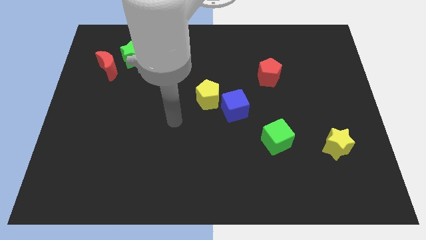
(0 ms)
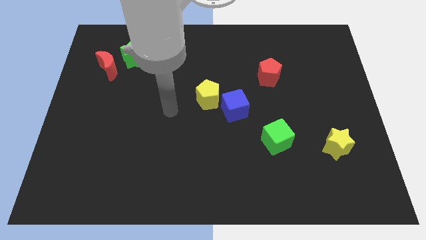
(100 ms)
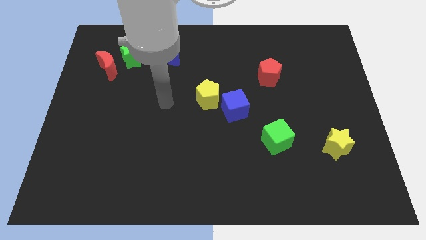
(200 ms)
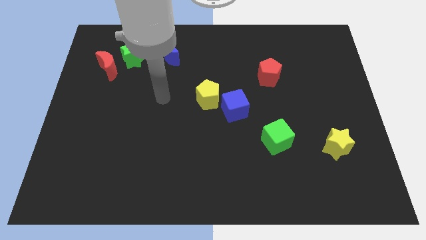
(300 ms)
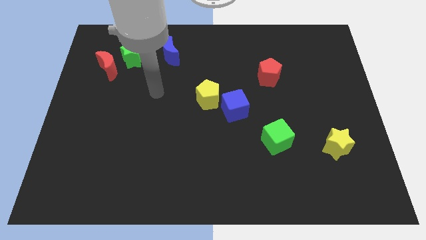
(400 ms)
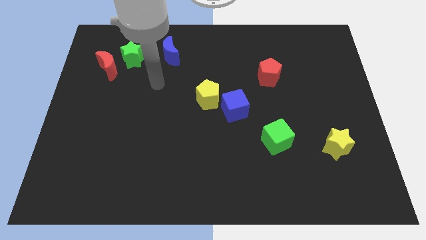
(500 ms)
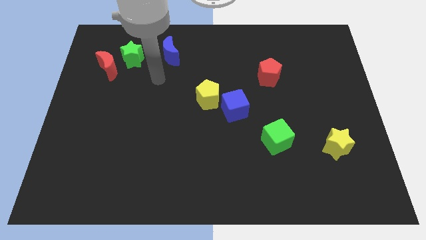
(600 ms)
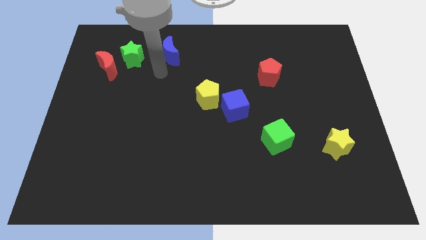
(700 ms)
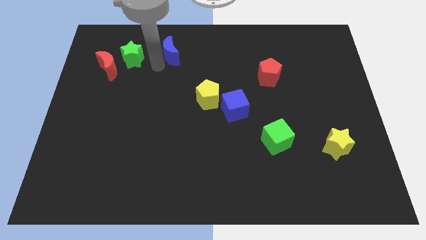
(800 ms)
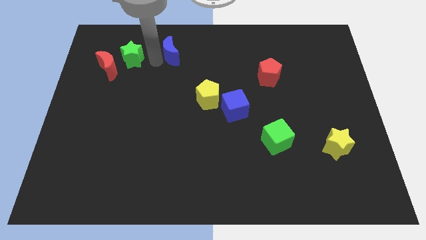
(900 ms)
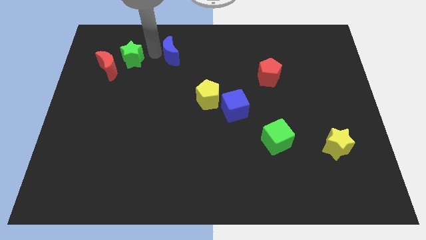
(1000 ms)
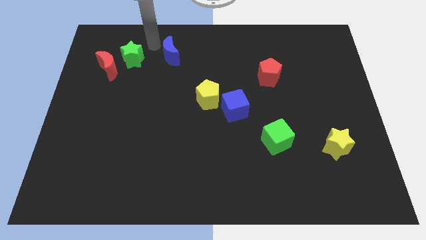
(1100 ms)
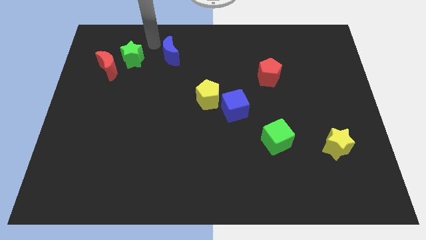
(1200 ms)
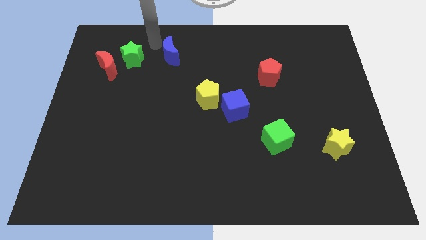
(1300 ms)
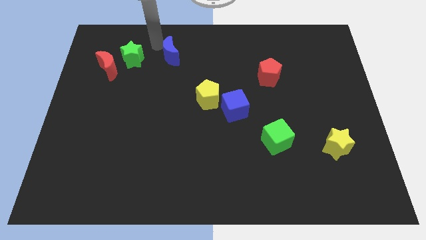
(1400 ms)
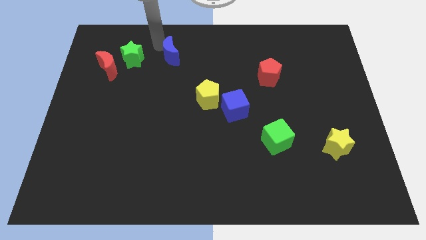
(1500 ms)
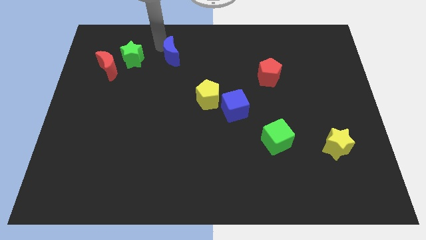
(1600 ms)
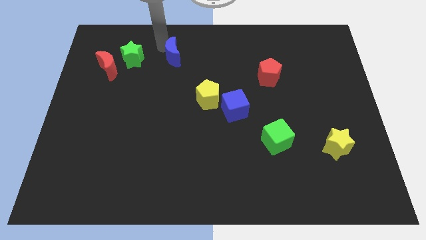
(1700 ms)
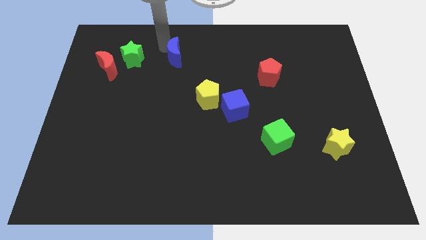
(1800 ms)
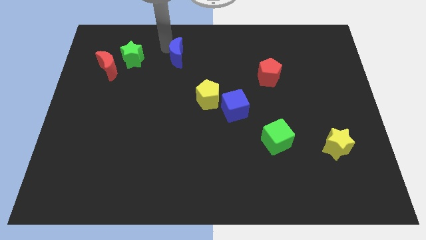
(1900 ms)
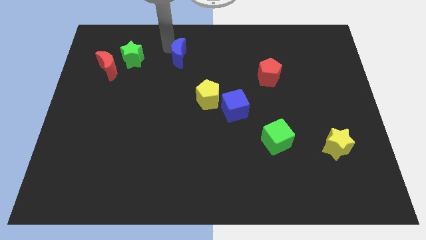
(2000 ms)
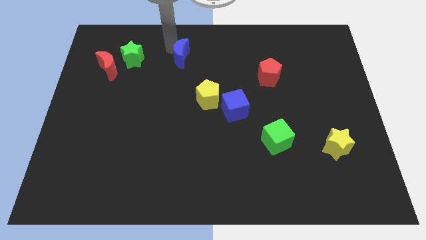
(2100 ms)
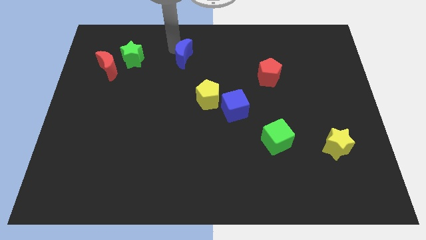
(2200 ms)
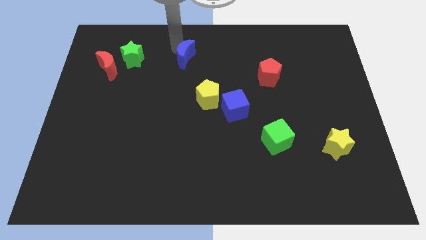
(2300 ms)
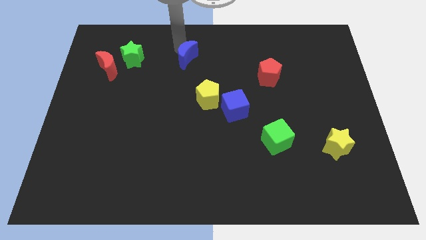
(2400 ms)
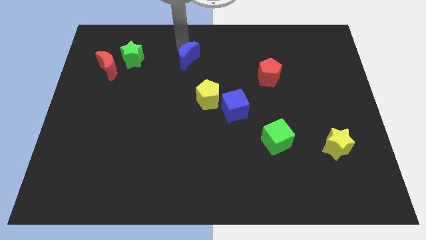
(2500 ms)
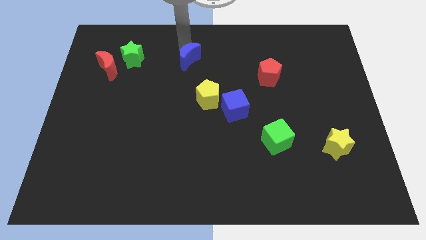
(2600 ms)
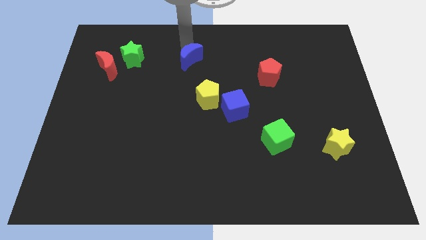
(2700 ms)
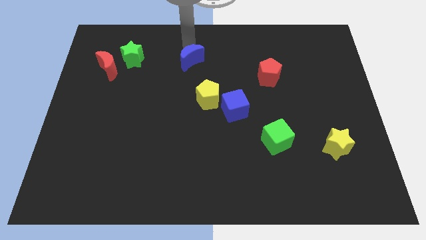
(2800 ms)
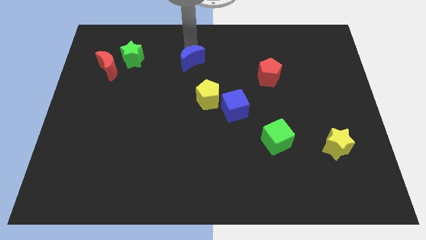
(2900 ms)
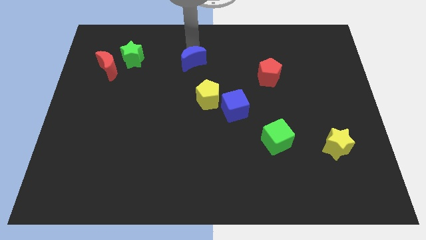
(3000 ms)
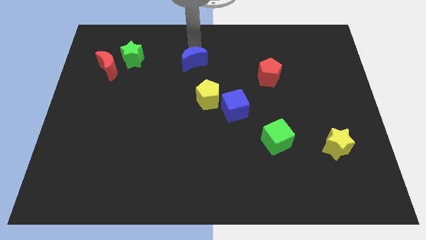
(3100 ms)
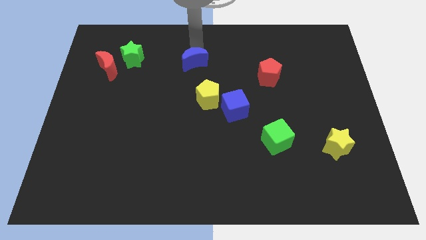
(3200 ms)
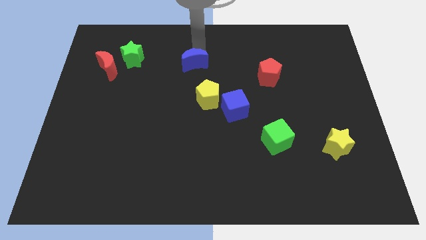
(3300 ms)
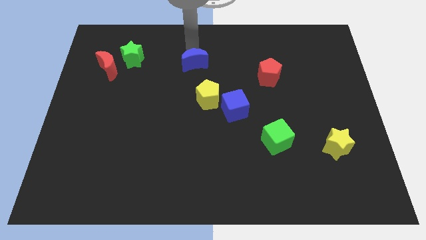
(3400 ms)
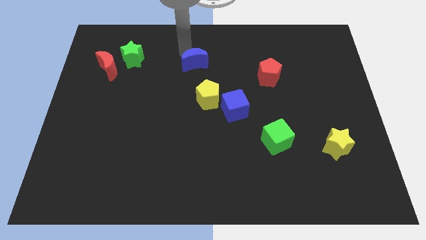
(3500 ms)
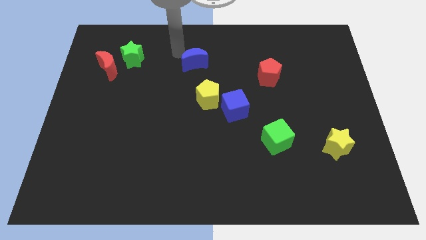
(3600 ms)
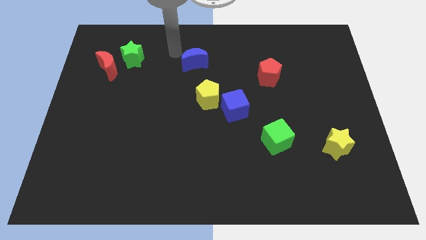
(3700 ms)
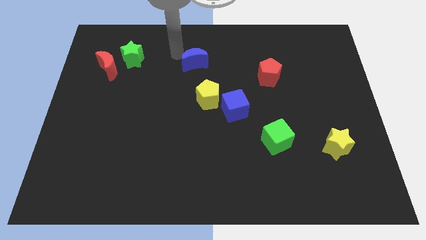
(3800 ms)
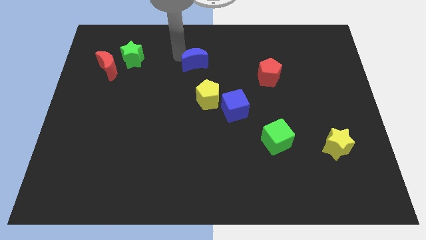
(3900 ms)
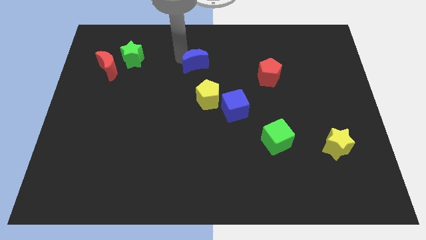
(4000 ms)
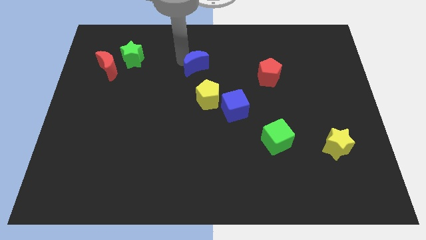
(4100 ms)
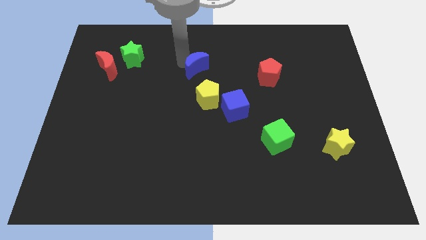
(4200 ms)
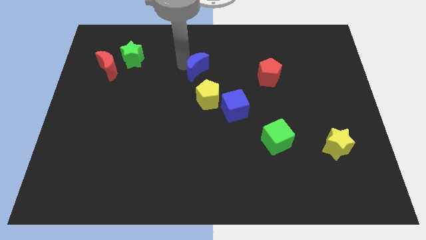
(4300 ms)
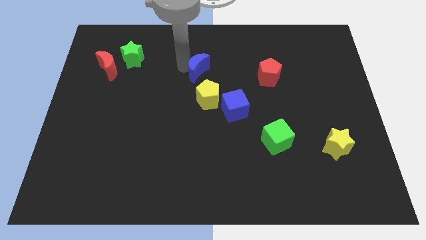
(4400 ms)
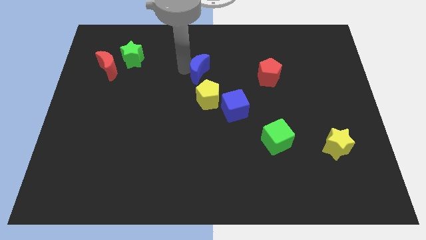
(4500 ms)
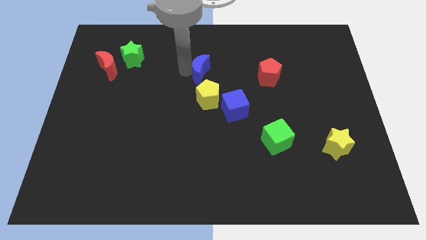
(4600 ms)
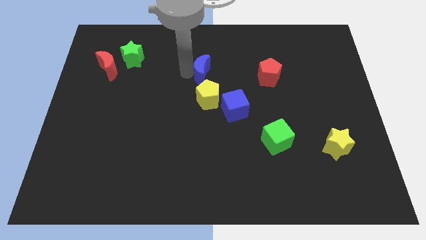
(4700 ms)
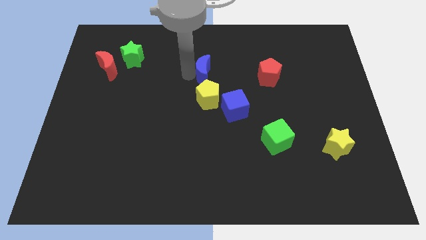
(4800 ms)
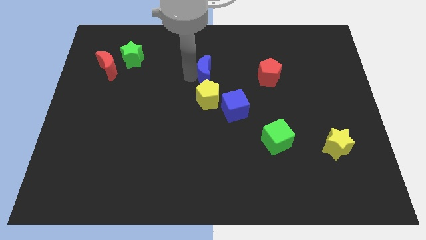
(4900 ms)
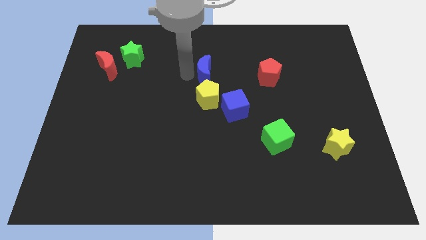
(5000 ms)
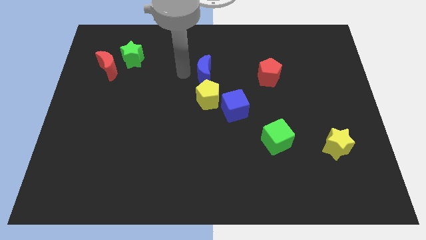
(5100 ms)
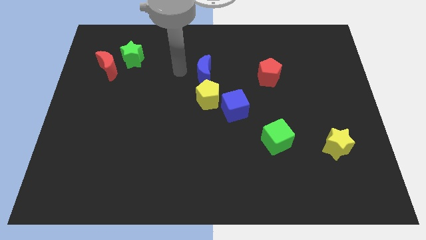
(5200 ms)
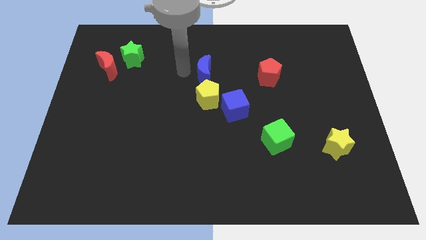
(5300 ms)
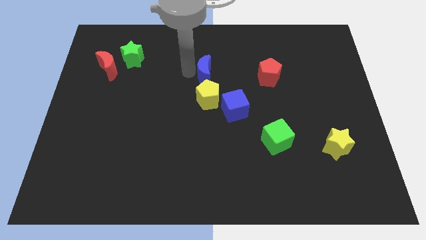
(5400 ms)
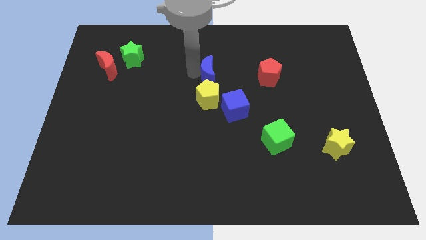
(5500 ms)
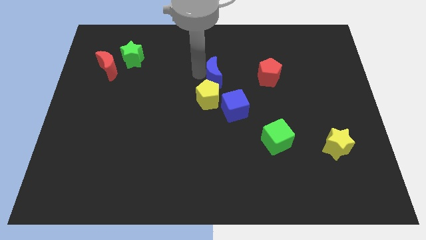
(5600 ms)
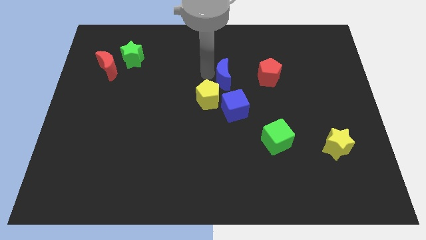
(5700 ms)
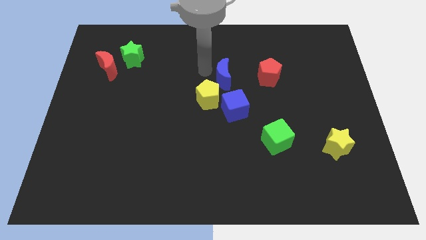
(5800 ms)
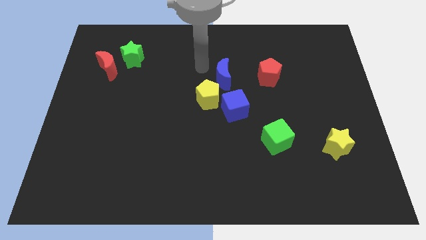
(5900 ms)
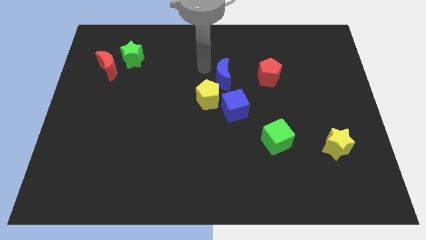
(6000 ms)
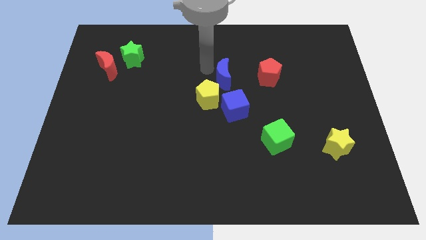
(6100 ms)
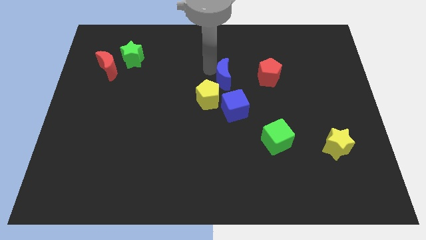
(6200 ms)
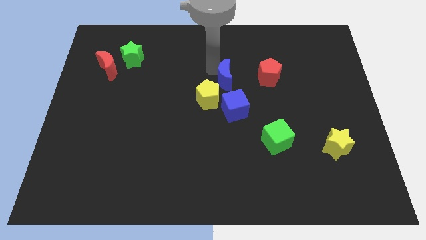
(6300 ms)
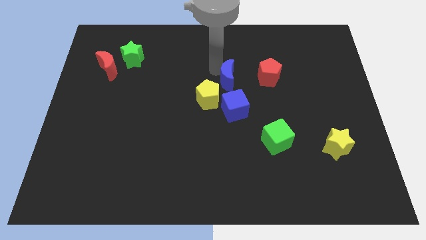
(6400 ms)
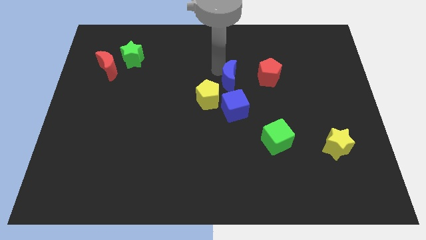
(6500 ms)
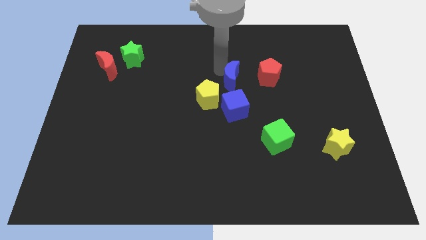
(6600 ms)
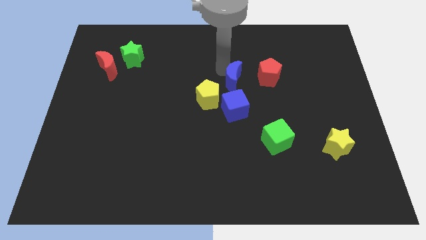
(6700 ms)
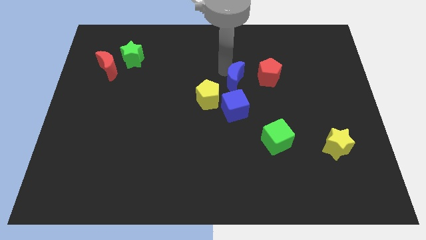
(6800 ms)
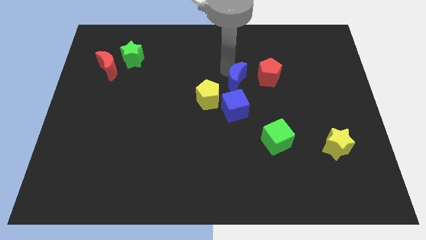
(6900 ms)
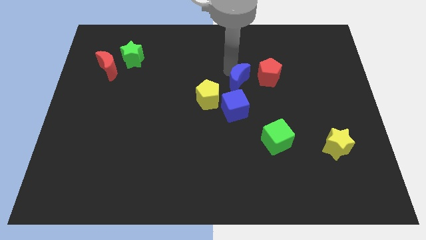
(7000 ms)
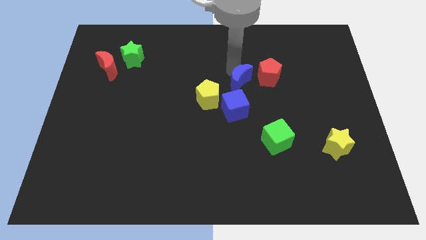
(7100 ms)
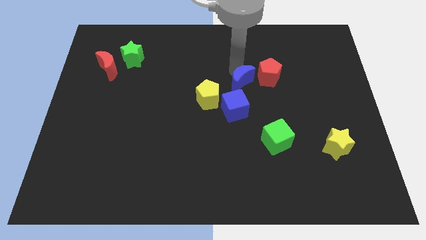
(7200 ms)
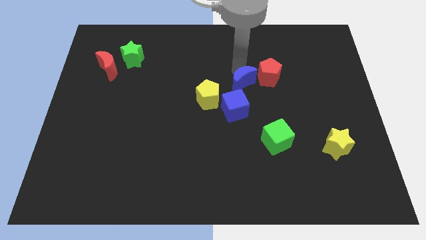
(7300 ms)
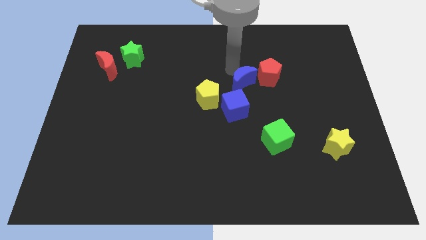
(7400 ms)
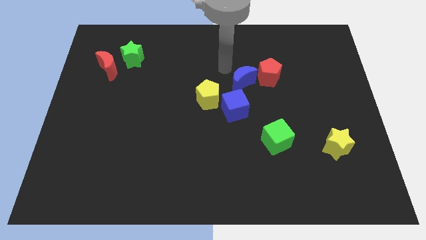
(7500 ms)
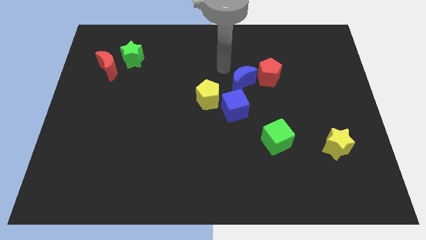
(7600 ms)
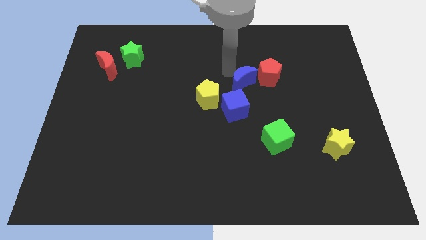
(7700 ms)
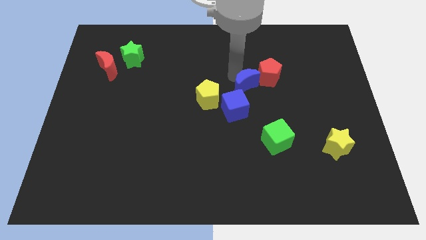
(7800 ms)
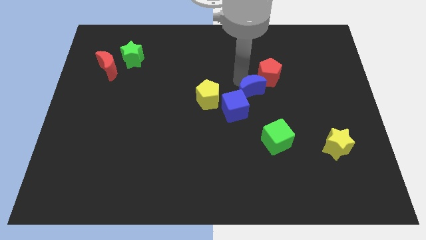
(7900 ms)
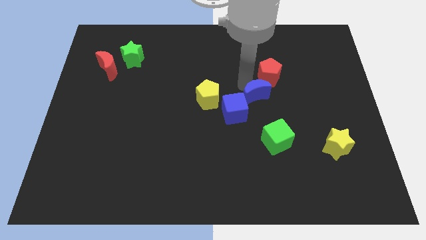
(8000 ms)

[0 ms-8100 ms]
put the blue moon to the top of the green cube
